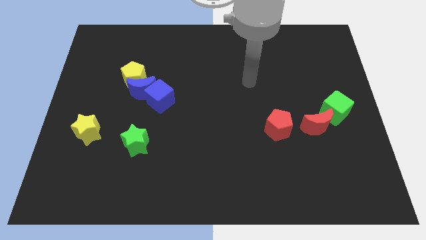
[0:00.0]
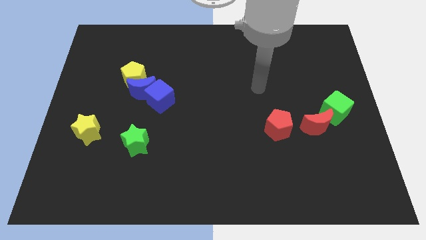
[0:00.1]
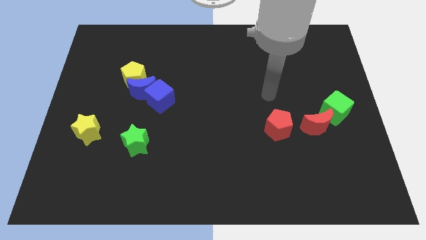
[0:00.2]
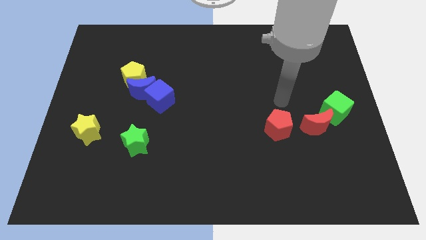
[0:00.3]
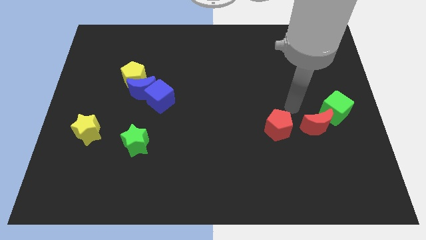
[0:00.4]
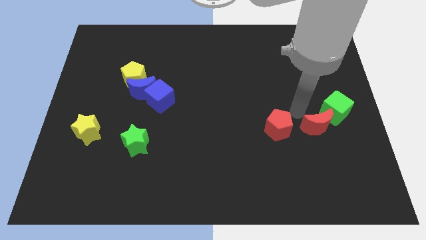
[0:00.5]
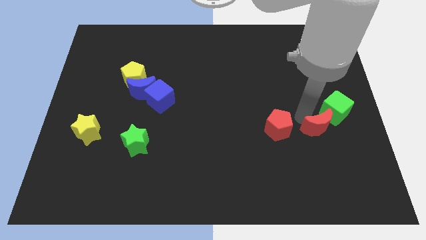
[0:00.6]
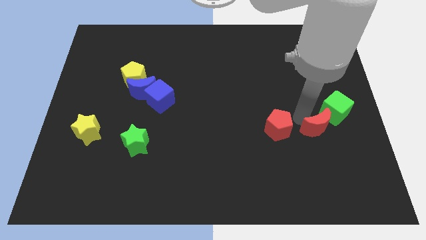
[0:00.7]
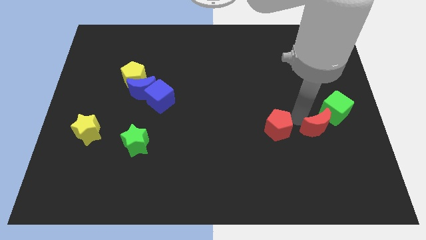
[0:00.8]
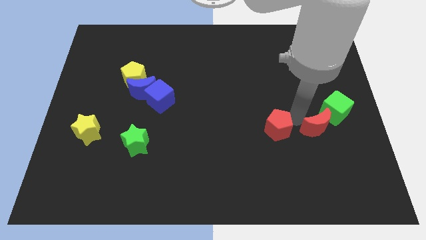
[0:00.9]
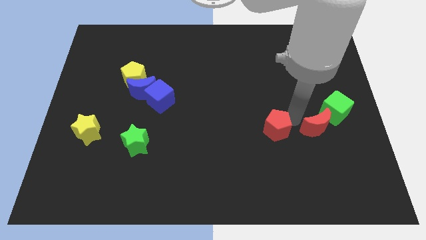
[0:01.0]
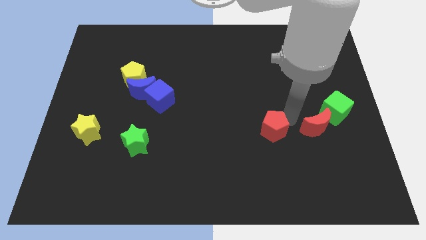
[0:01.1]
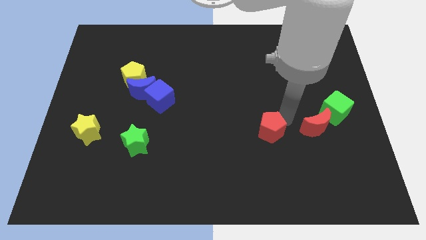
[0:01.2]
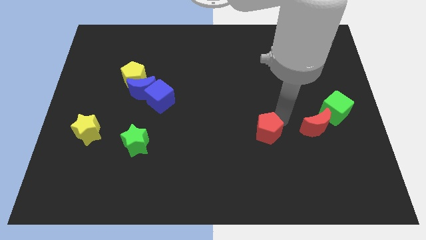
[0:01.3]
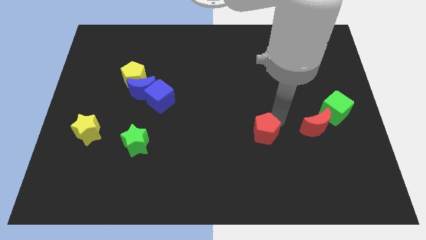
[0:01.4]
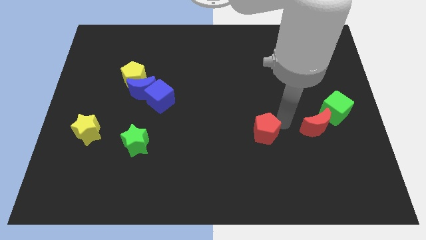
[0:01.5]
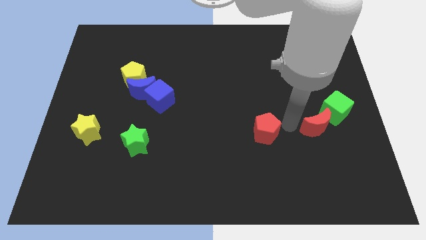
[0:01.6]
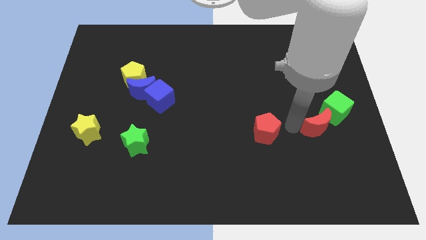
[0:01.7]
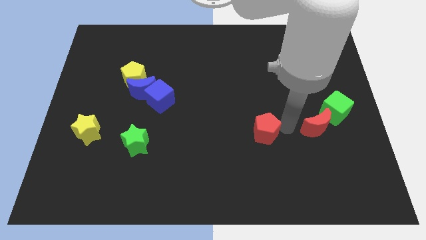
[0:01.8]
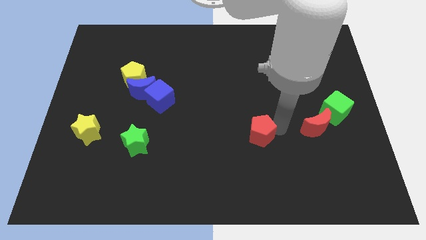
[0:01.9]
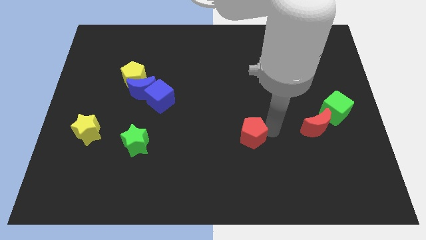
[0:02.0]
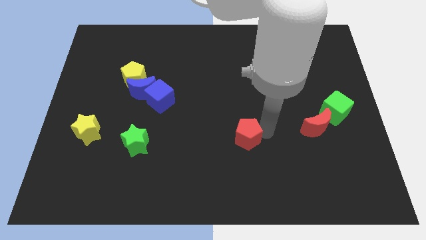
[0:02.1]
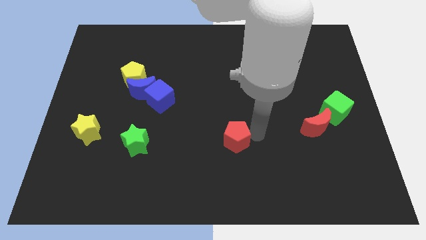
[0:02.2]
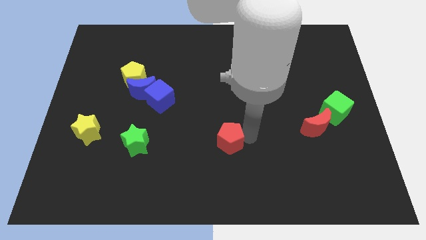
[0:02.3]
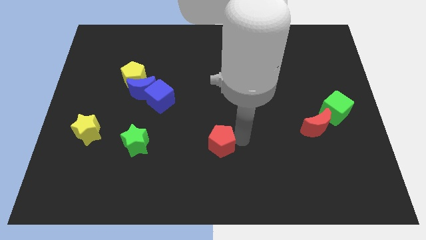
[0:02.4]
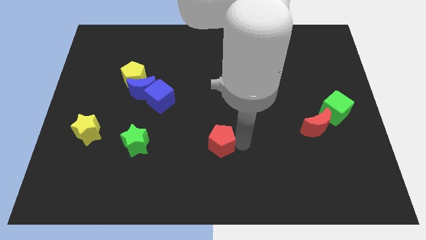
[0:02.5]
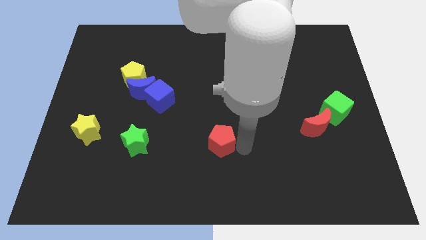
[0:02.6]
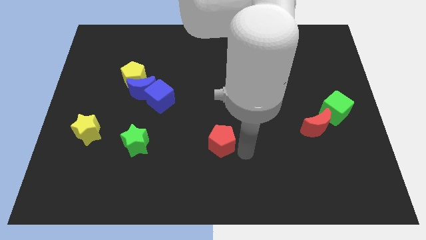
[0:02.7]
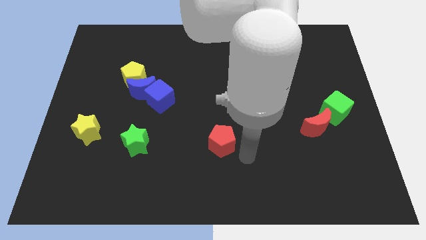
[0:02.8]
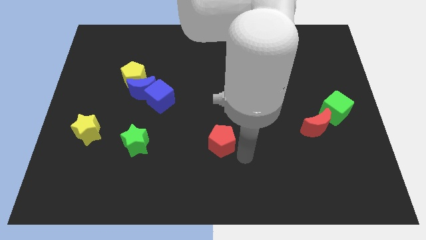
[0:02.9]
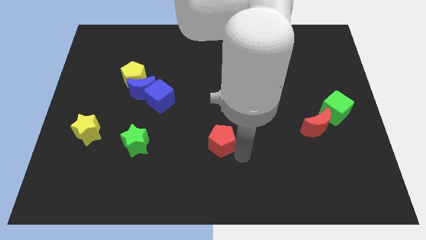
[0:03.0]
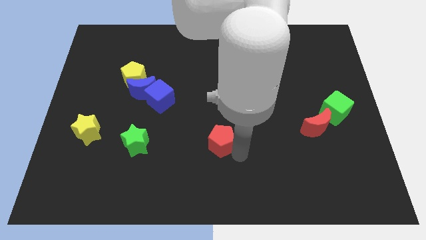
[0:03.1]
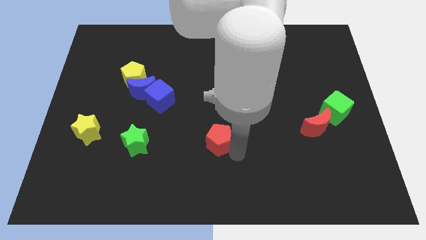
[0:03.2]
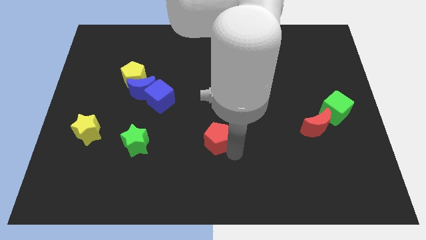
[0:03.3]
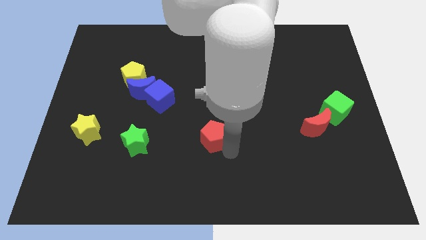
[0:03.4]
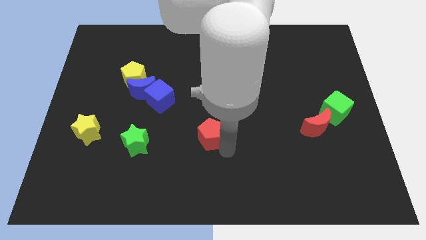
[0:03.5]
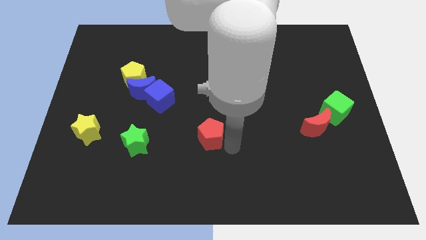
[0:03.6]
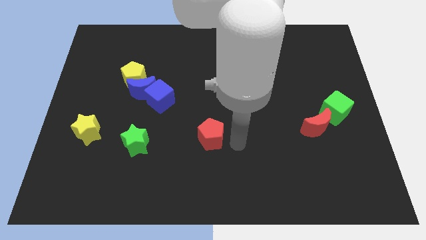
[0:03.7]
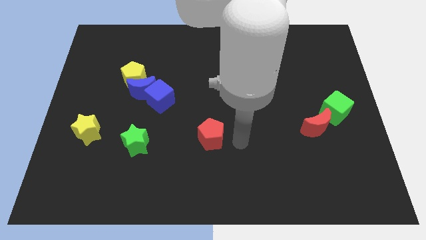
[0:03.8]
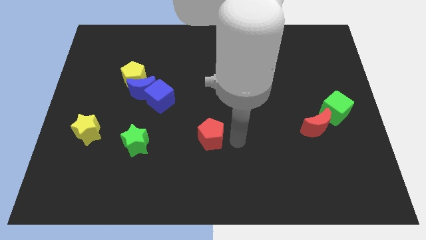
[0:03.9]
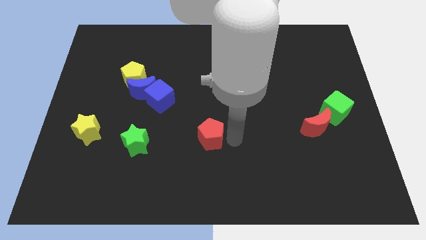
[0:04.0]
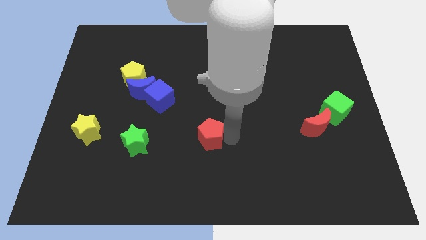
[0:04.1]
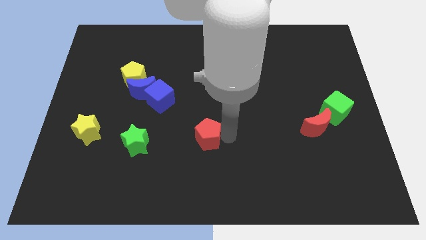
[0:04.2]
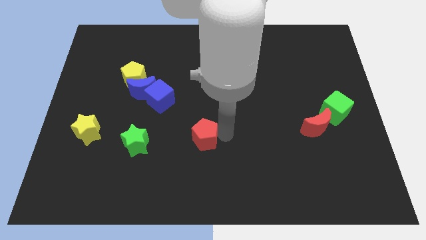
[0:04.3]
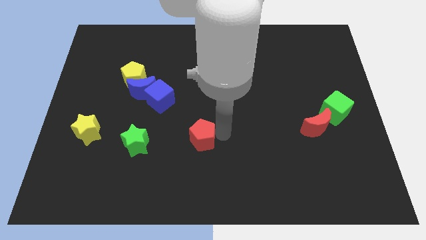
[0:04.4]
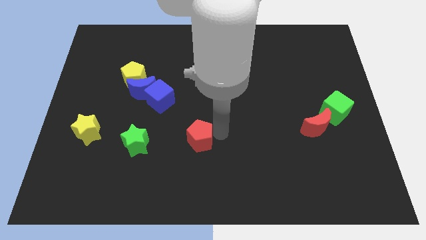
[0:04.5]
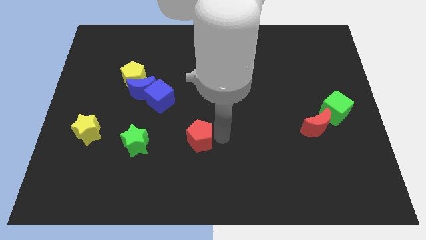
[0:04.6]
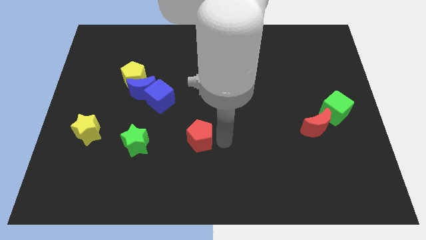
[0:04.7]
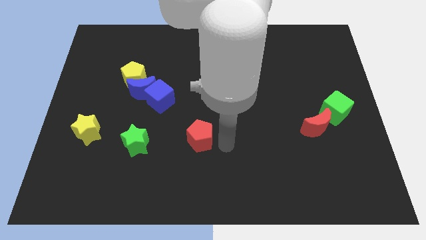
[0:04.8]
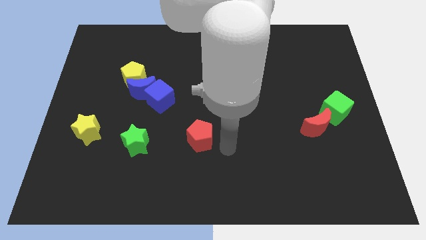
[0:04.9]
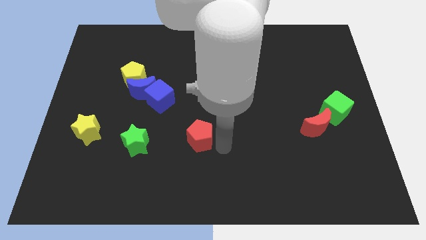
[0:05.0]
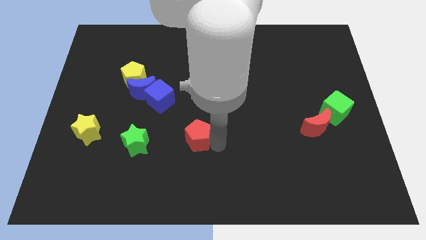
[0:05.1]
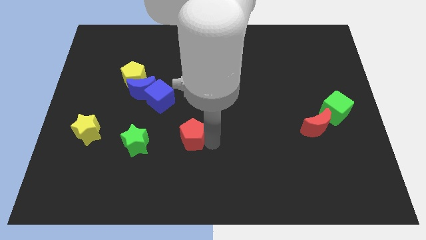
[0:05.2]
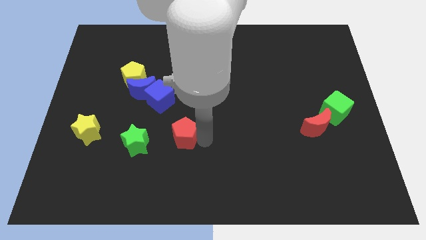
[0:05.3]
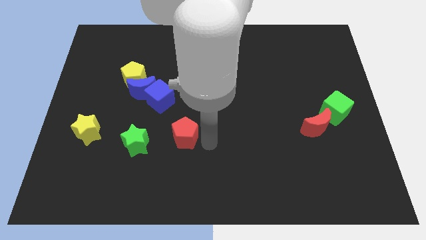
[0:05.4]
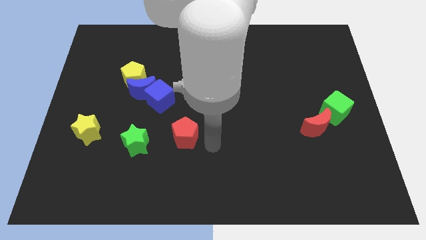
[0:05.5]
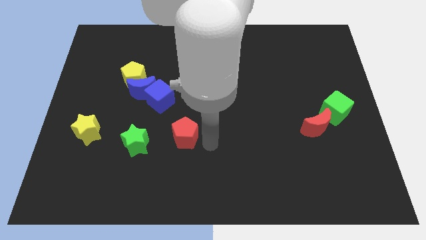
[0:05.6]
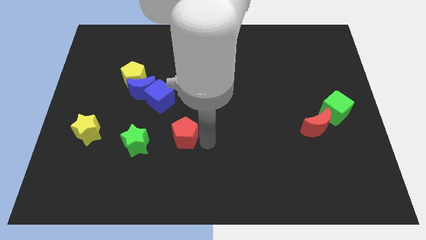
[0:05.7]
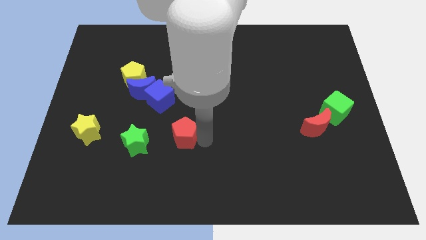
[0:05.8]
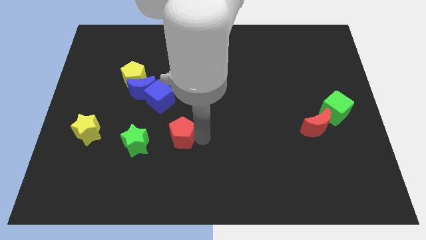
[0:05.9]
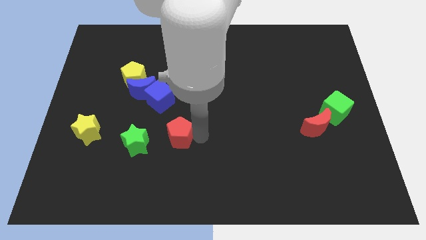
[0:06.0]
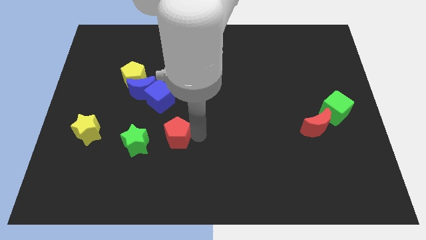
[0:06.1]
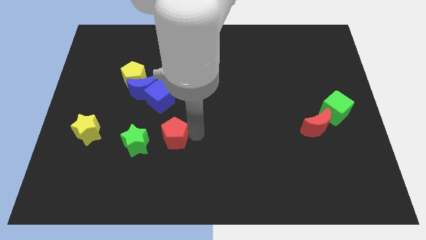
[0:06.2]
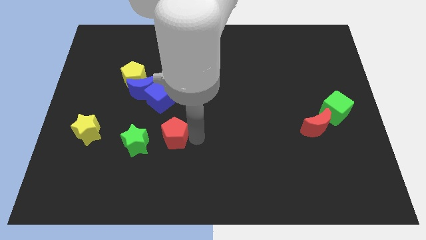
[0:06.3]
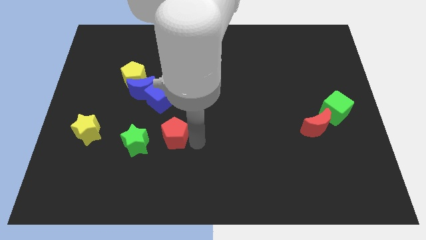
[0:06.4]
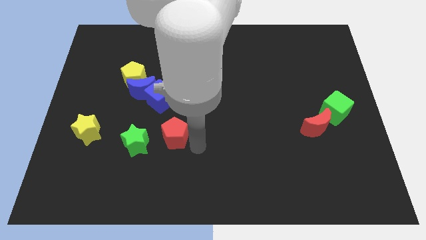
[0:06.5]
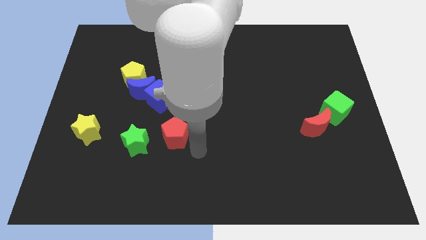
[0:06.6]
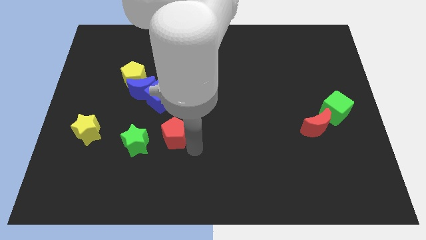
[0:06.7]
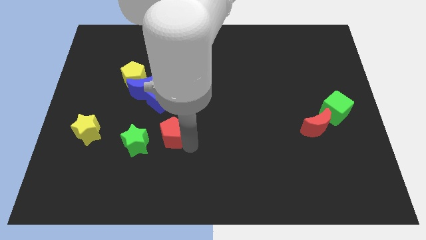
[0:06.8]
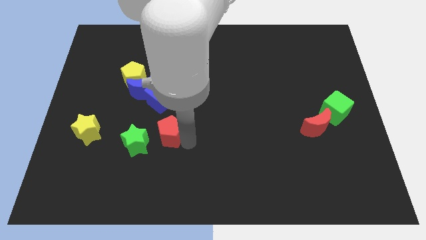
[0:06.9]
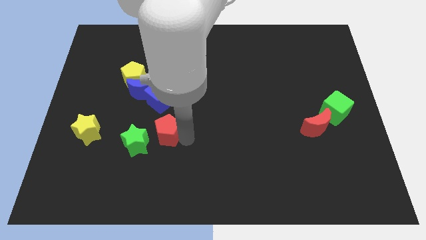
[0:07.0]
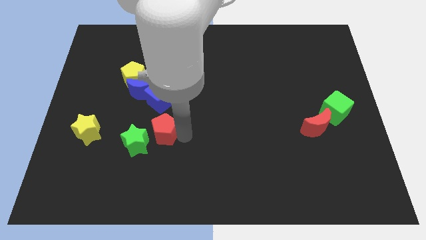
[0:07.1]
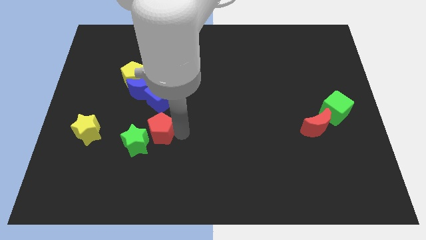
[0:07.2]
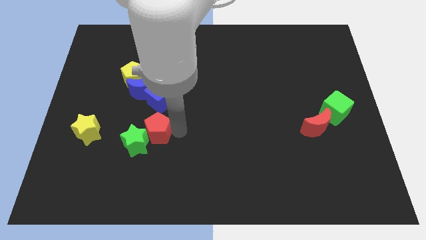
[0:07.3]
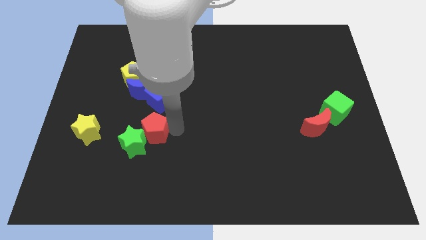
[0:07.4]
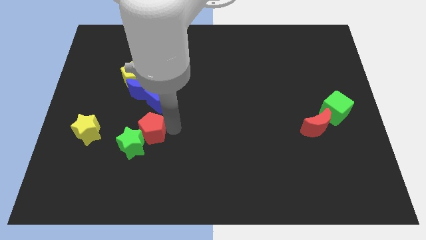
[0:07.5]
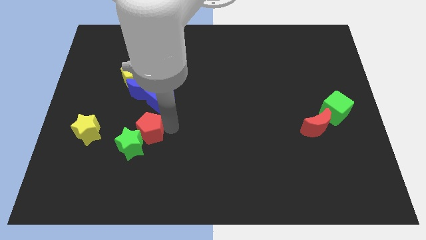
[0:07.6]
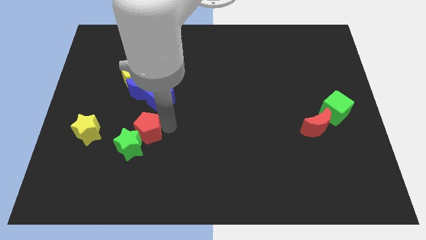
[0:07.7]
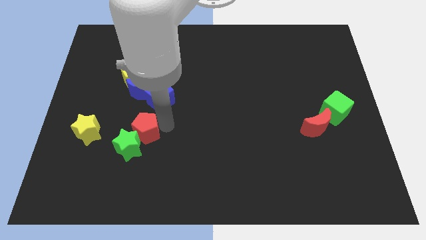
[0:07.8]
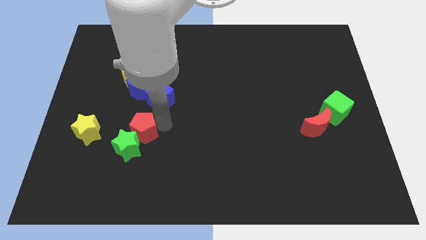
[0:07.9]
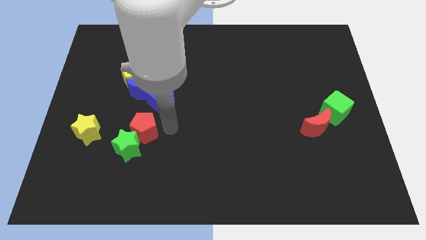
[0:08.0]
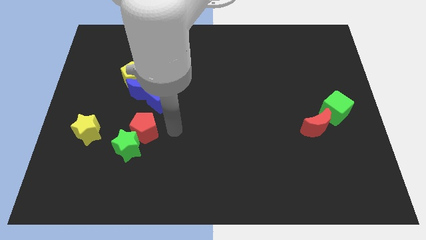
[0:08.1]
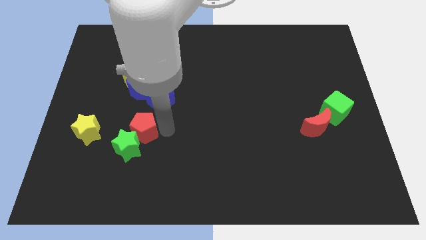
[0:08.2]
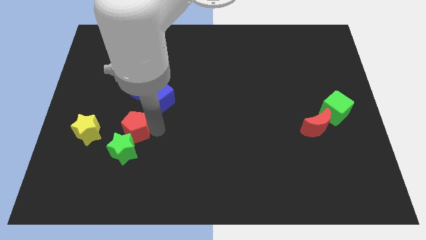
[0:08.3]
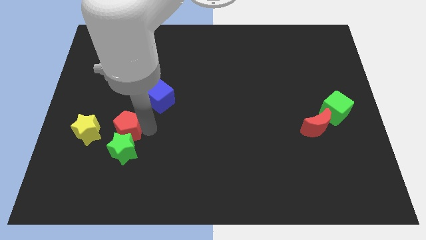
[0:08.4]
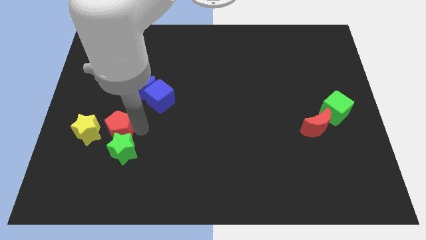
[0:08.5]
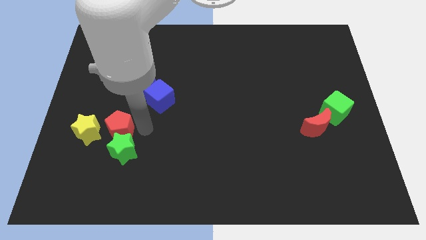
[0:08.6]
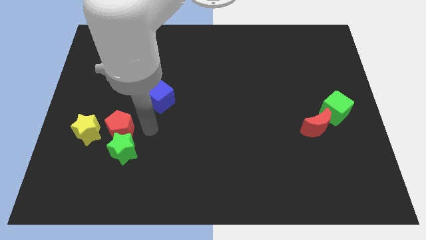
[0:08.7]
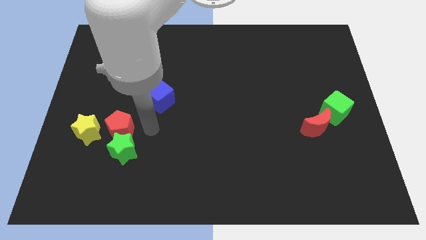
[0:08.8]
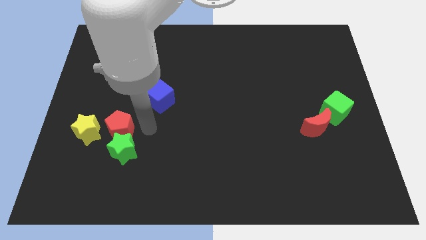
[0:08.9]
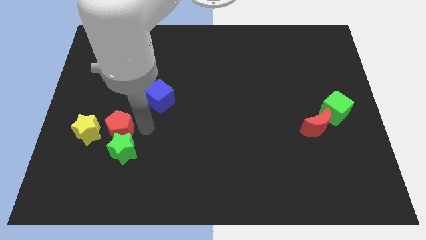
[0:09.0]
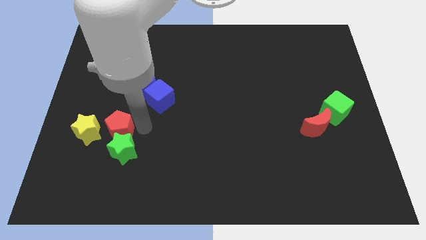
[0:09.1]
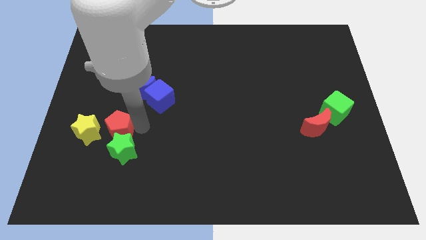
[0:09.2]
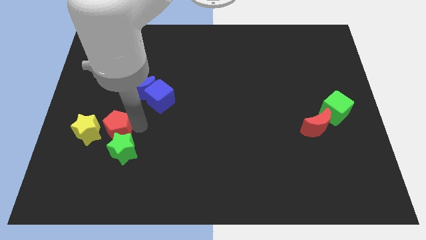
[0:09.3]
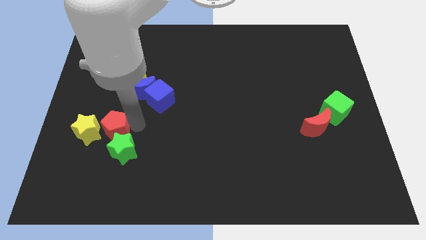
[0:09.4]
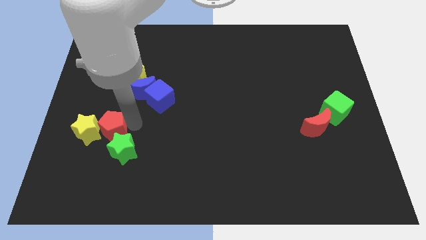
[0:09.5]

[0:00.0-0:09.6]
put the red pentagon close to the yellow star
